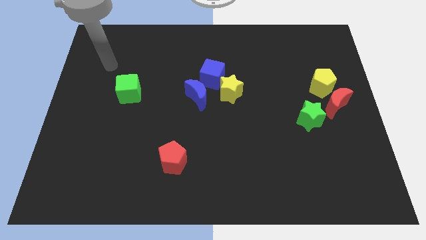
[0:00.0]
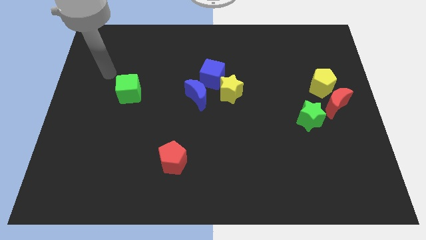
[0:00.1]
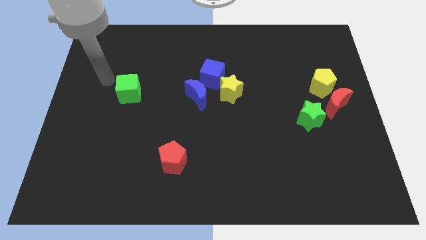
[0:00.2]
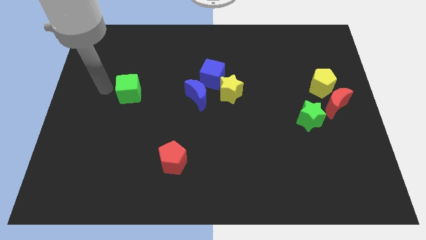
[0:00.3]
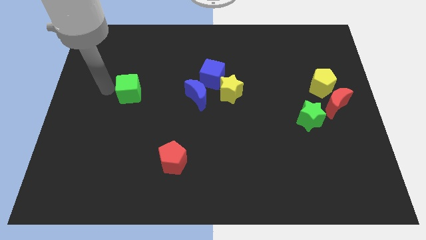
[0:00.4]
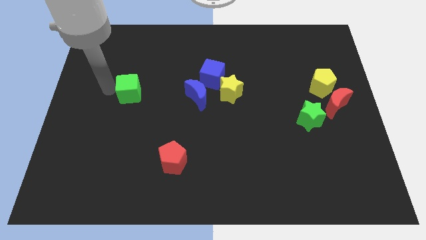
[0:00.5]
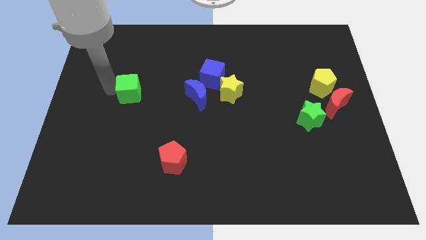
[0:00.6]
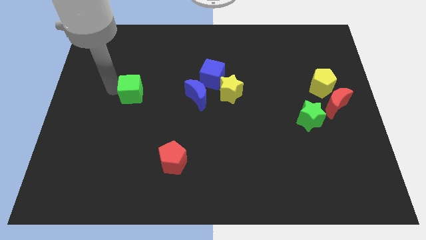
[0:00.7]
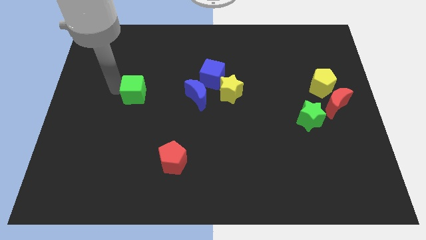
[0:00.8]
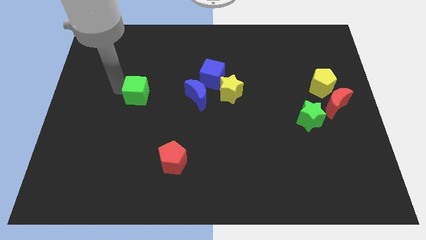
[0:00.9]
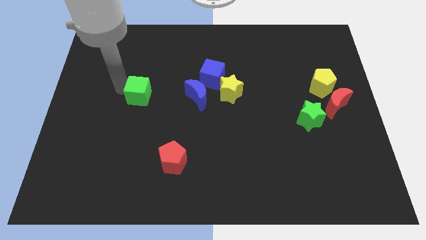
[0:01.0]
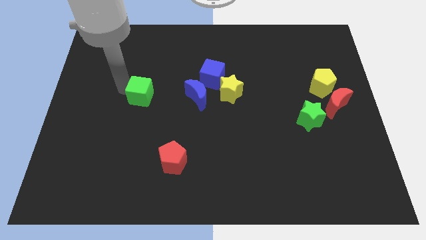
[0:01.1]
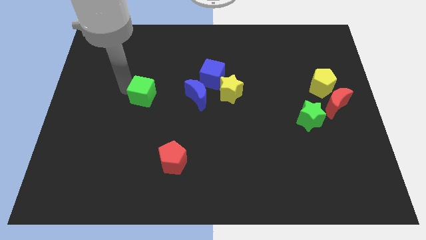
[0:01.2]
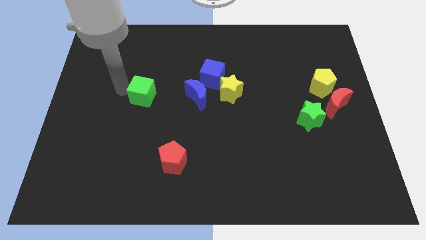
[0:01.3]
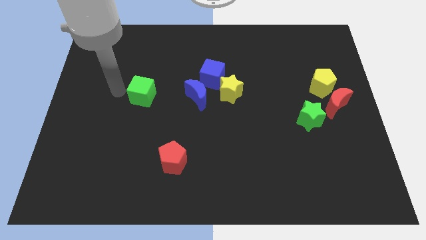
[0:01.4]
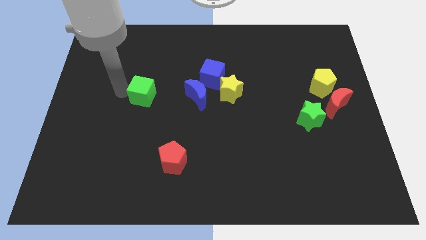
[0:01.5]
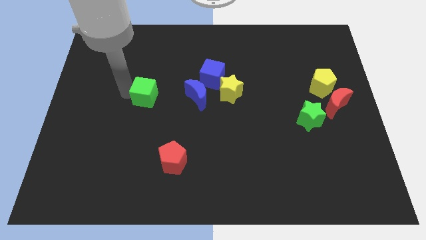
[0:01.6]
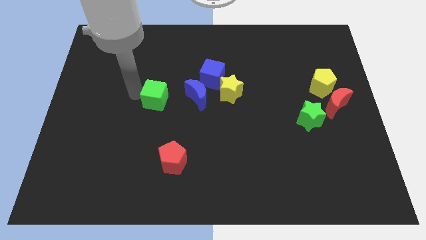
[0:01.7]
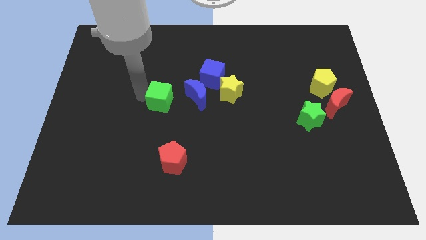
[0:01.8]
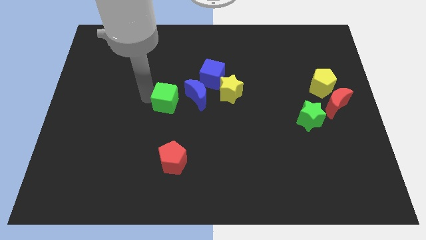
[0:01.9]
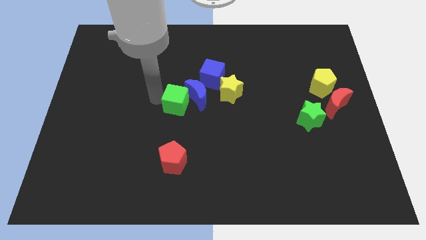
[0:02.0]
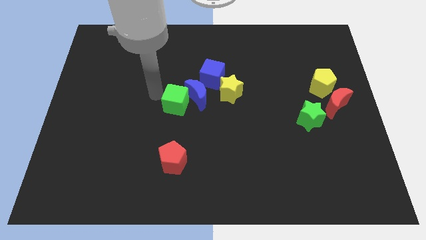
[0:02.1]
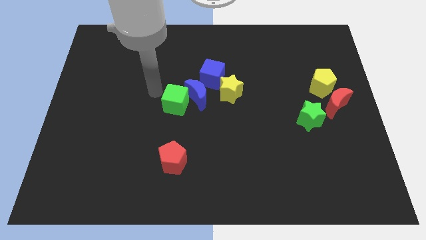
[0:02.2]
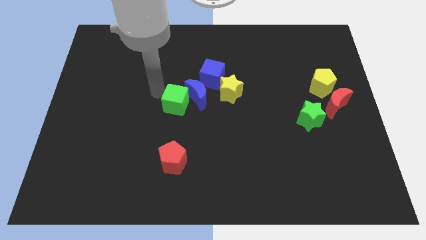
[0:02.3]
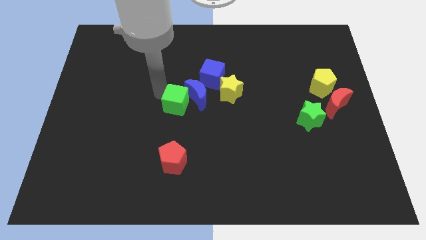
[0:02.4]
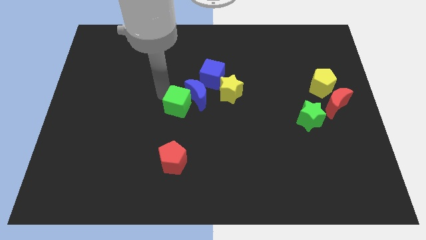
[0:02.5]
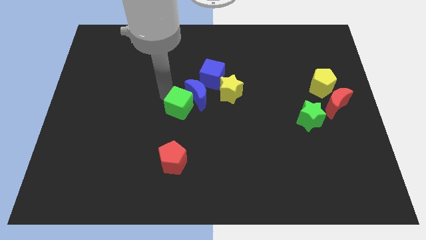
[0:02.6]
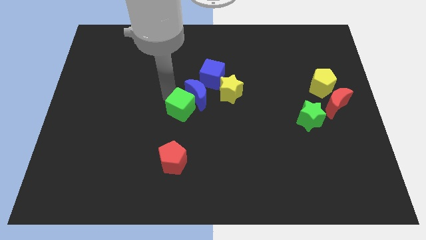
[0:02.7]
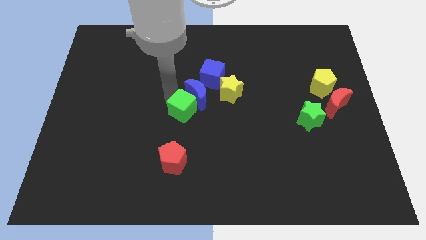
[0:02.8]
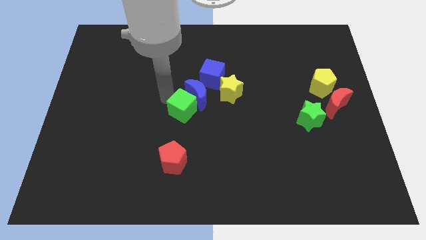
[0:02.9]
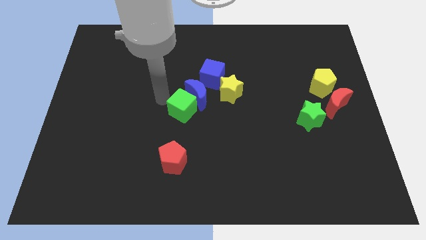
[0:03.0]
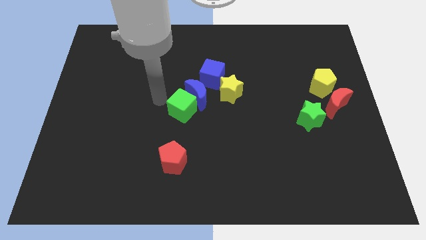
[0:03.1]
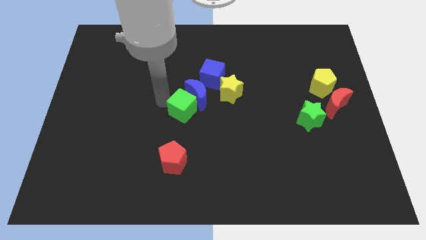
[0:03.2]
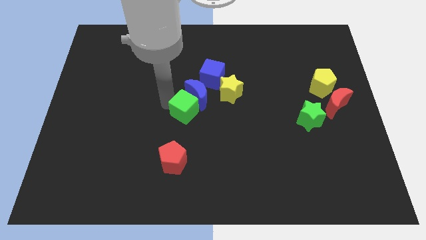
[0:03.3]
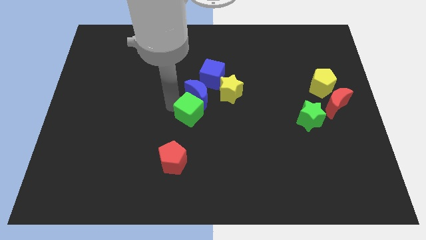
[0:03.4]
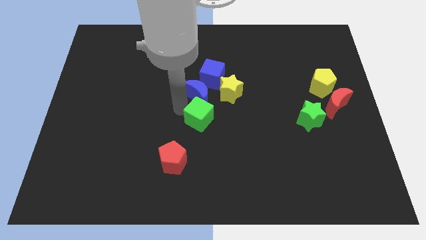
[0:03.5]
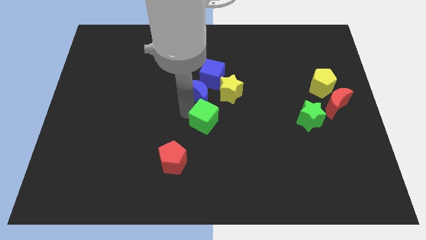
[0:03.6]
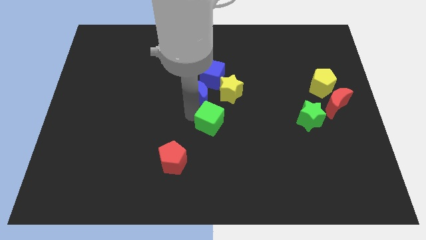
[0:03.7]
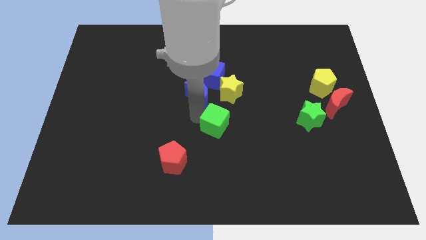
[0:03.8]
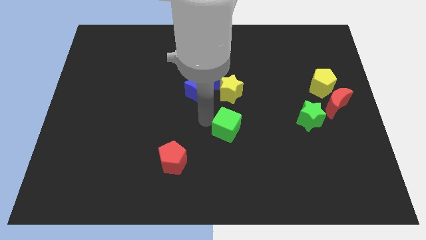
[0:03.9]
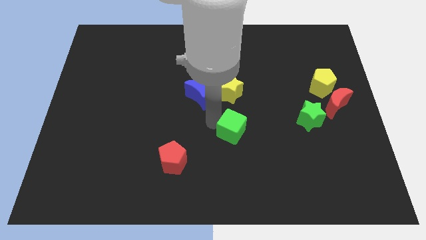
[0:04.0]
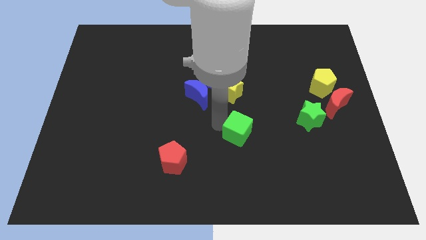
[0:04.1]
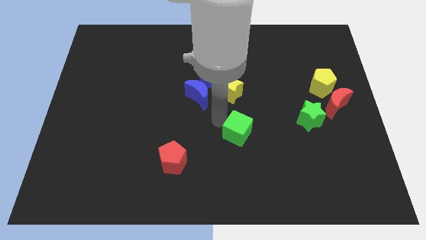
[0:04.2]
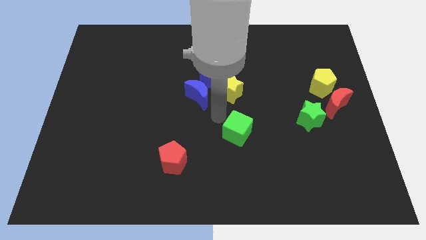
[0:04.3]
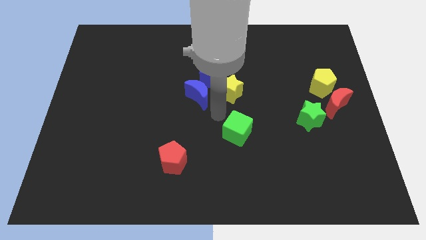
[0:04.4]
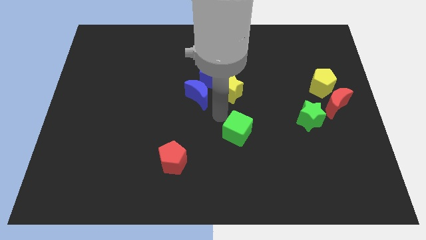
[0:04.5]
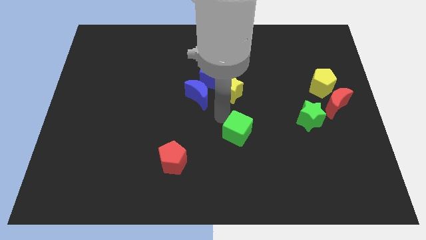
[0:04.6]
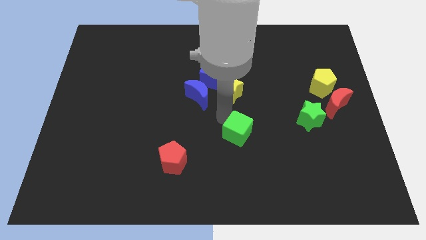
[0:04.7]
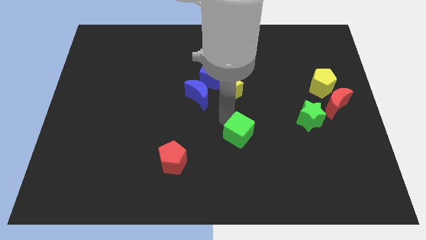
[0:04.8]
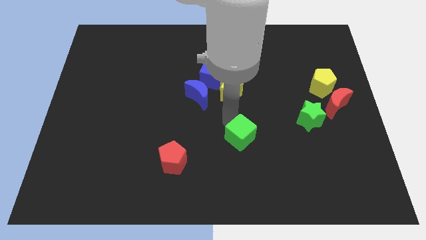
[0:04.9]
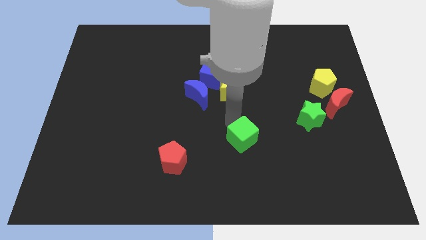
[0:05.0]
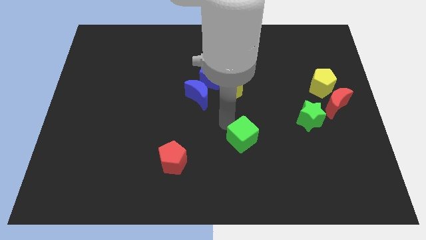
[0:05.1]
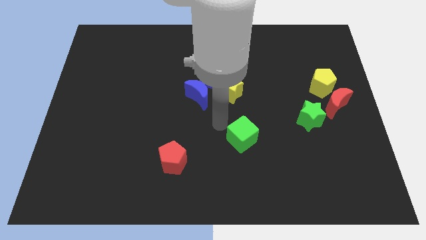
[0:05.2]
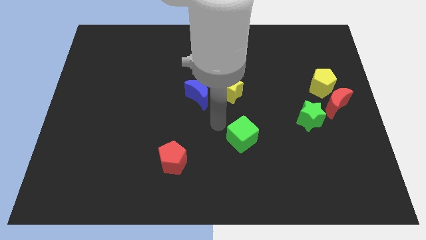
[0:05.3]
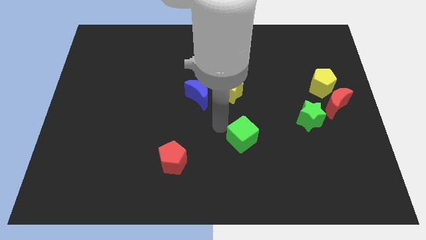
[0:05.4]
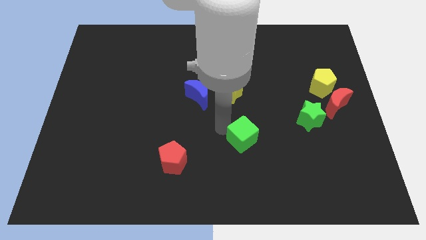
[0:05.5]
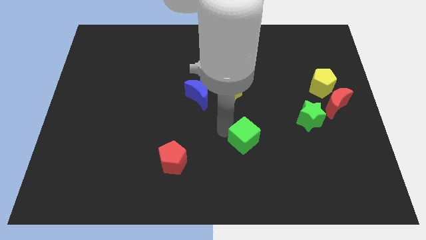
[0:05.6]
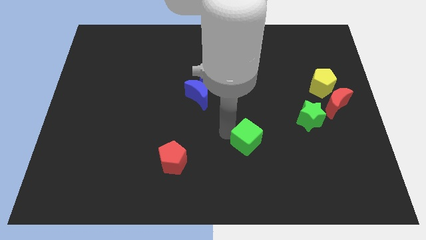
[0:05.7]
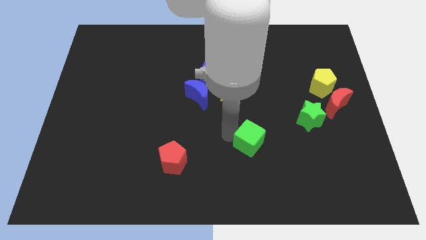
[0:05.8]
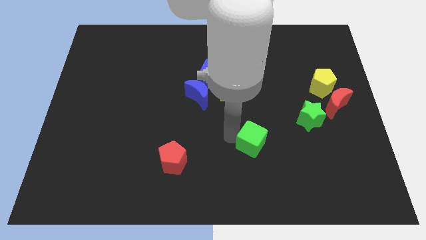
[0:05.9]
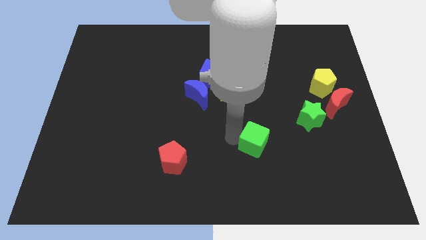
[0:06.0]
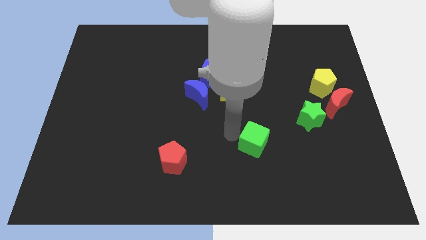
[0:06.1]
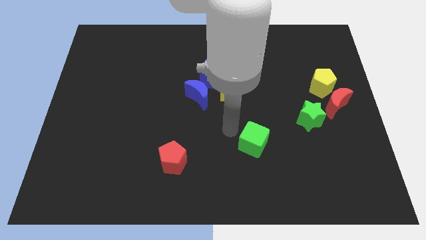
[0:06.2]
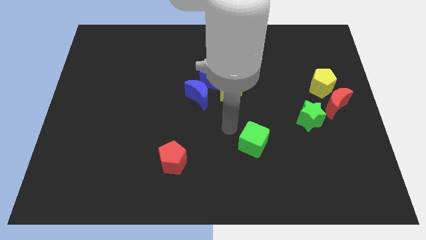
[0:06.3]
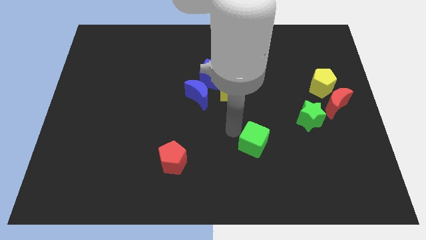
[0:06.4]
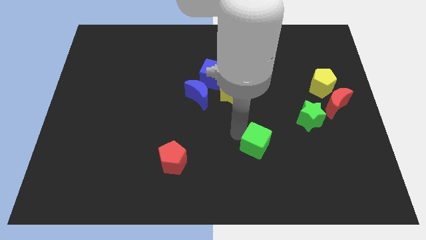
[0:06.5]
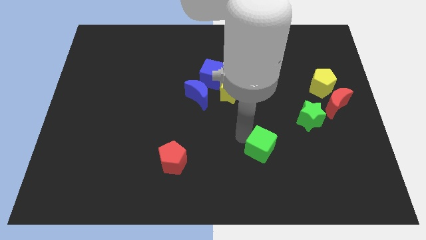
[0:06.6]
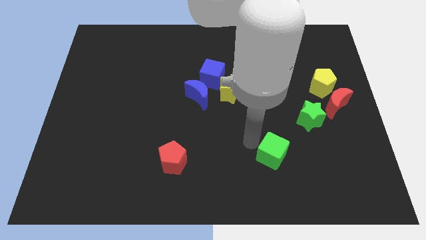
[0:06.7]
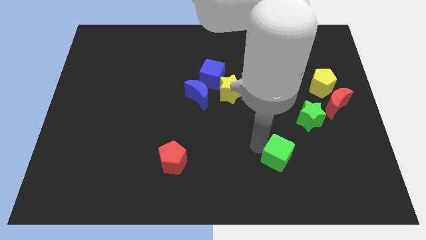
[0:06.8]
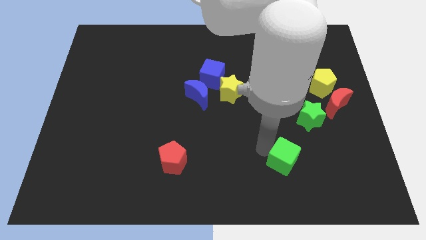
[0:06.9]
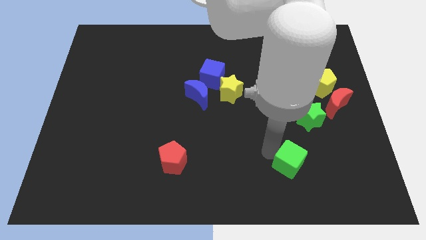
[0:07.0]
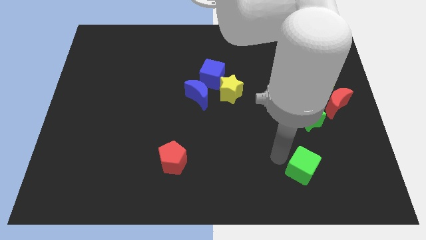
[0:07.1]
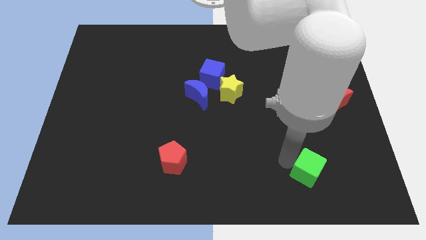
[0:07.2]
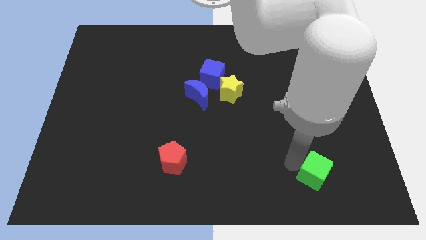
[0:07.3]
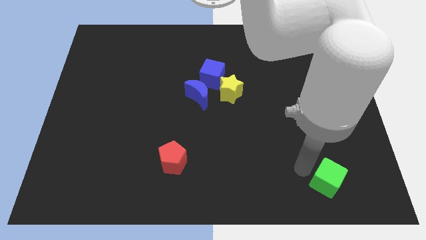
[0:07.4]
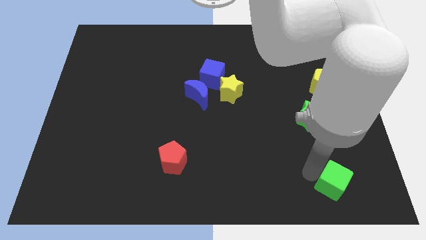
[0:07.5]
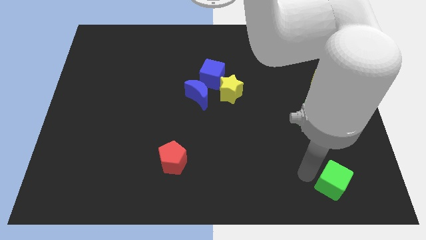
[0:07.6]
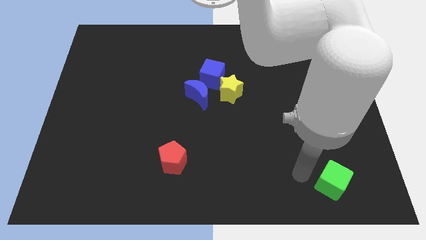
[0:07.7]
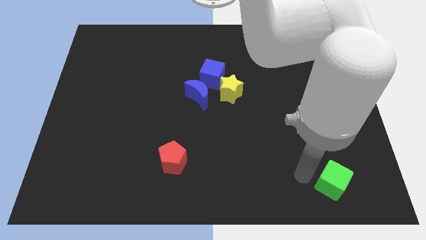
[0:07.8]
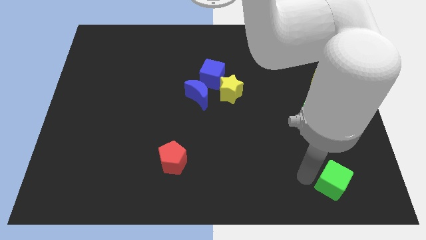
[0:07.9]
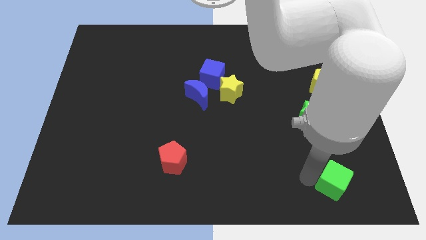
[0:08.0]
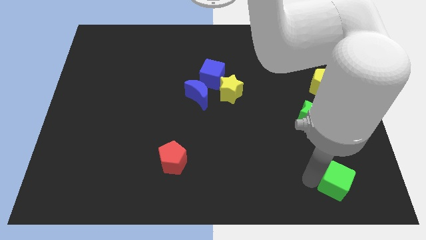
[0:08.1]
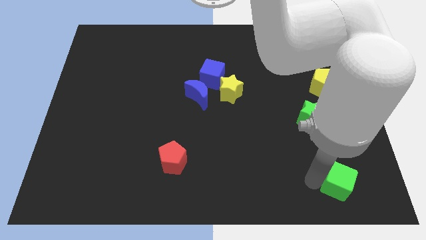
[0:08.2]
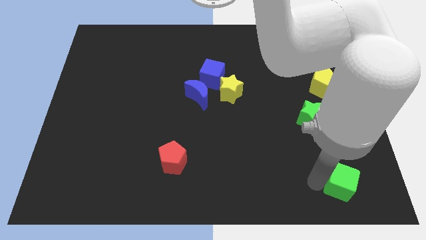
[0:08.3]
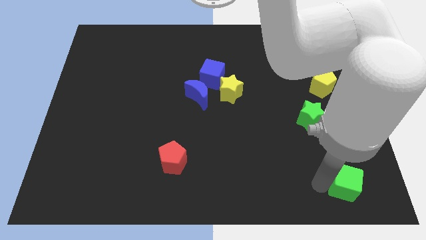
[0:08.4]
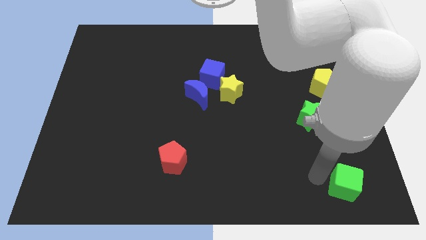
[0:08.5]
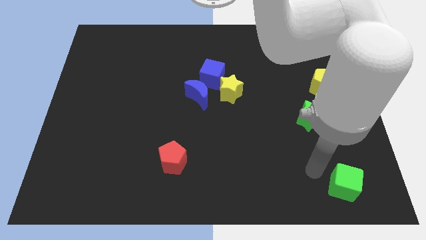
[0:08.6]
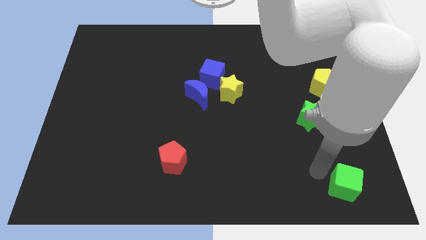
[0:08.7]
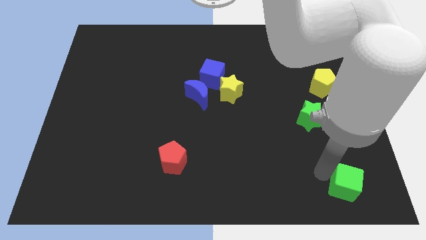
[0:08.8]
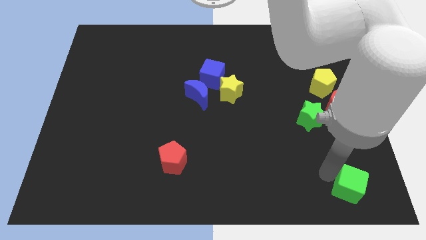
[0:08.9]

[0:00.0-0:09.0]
put the green cube to the lower right corner
